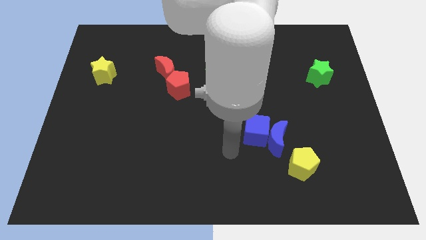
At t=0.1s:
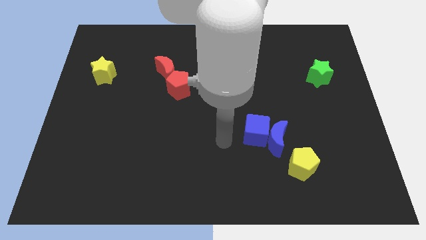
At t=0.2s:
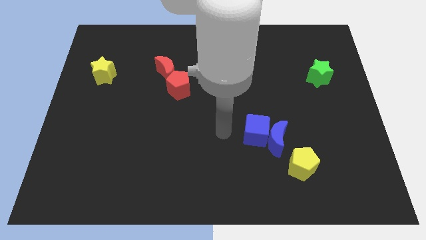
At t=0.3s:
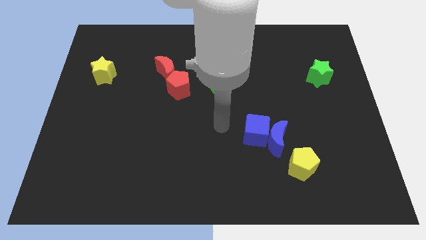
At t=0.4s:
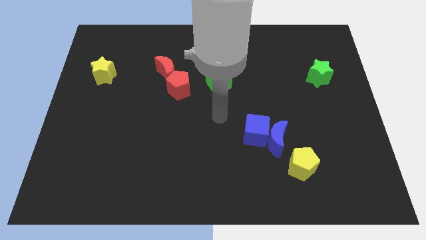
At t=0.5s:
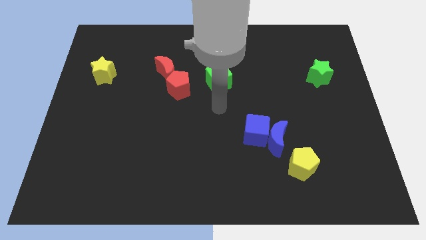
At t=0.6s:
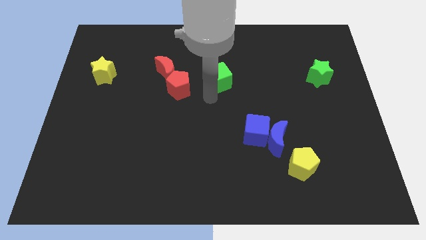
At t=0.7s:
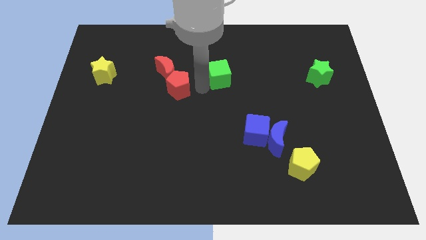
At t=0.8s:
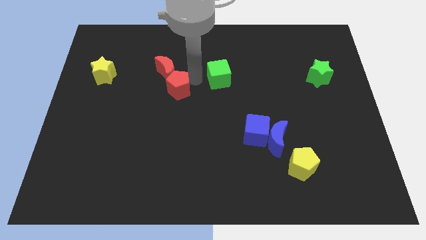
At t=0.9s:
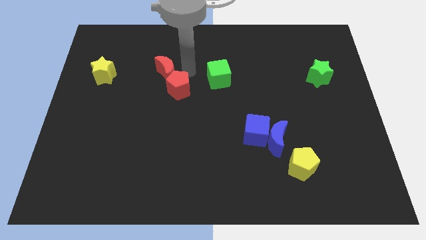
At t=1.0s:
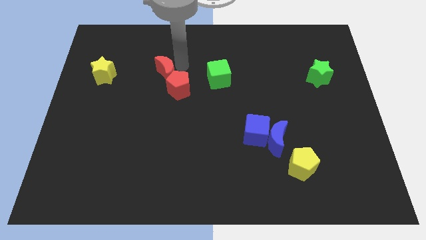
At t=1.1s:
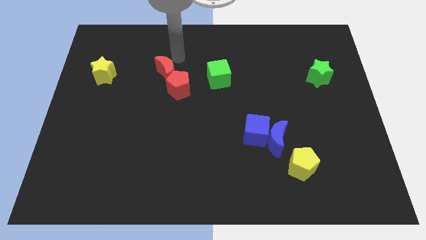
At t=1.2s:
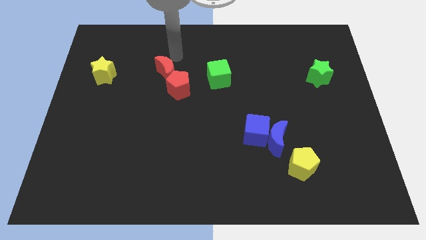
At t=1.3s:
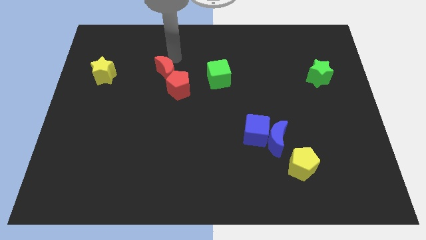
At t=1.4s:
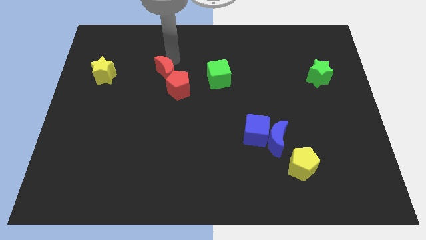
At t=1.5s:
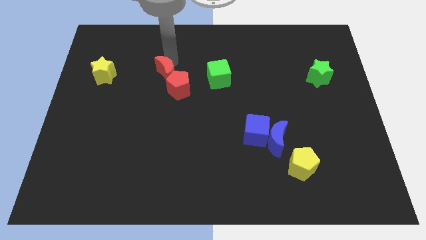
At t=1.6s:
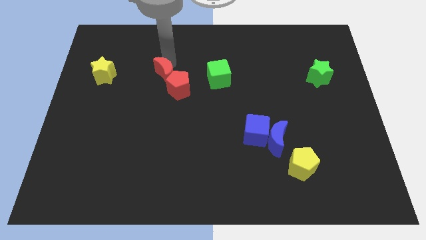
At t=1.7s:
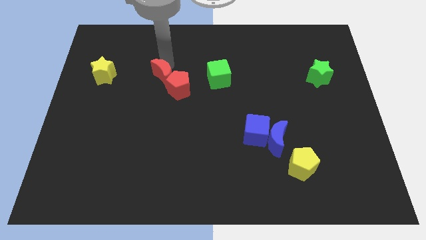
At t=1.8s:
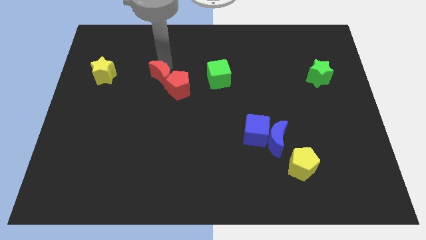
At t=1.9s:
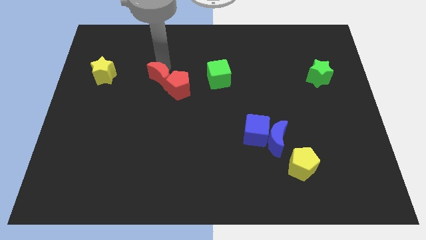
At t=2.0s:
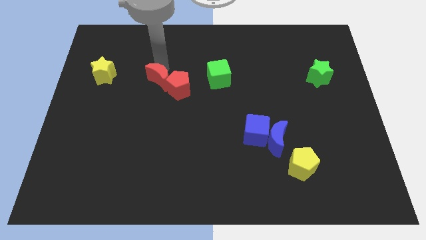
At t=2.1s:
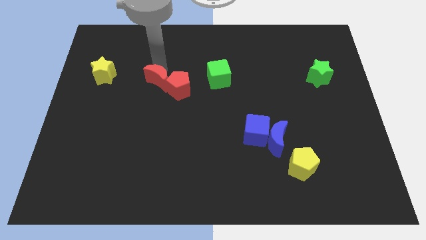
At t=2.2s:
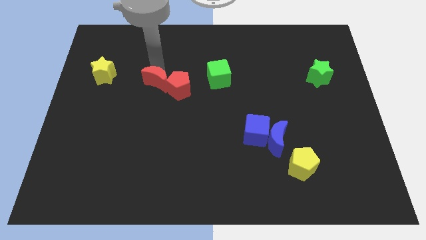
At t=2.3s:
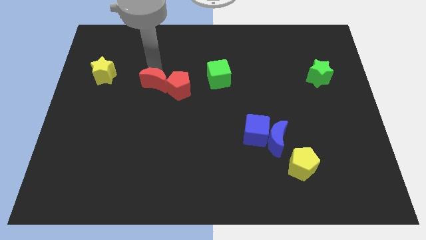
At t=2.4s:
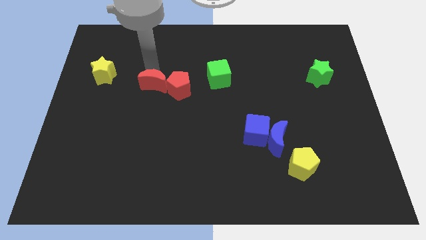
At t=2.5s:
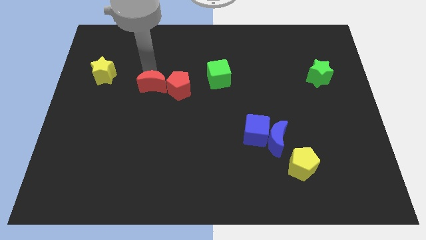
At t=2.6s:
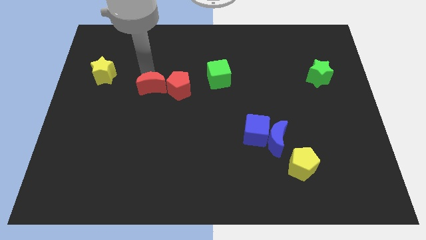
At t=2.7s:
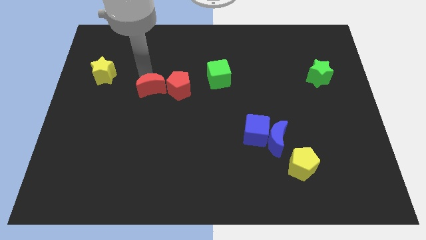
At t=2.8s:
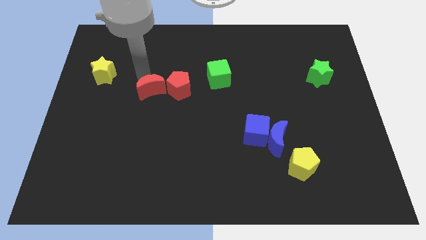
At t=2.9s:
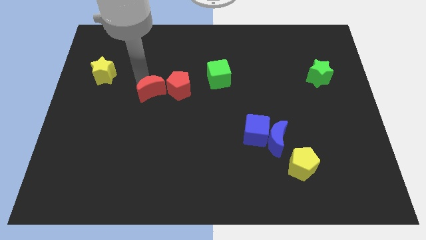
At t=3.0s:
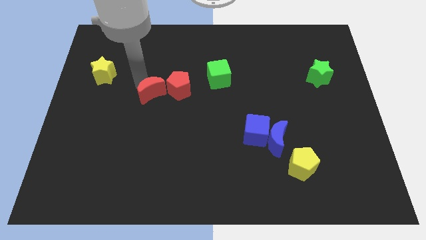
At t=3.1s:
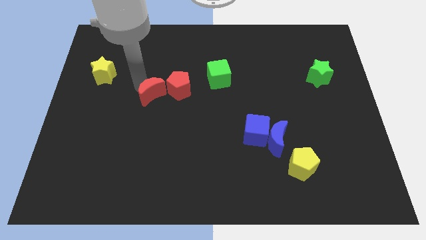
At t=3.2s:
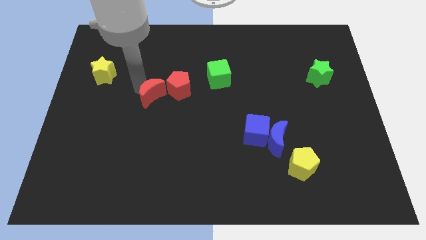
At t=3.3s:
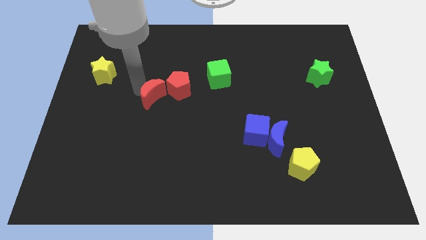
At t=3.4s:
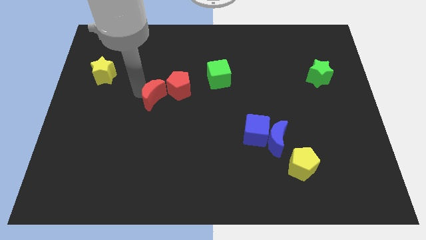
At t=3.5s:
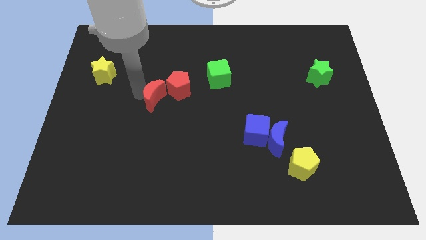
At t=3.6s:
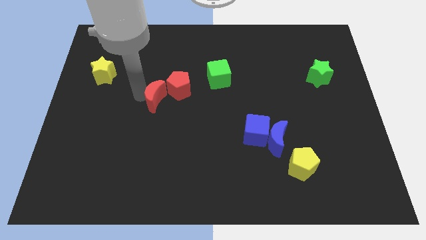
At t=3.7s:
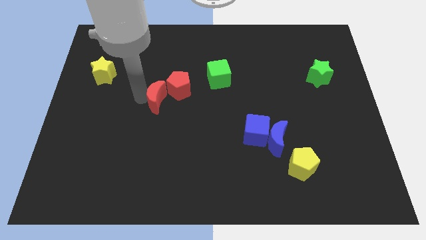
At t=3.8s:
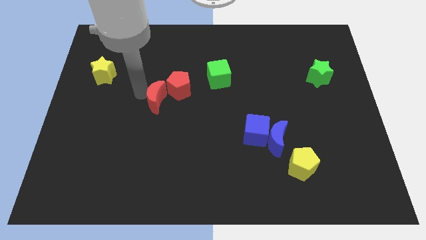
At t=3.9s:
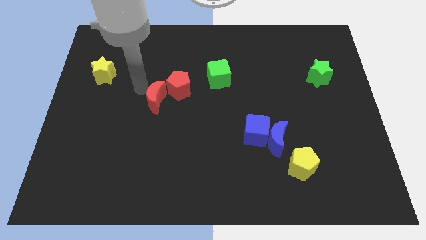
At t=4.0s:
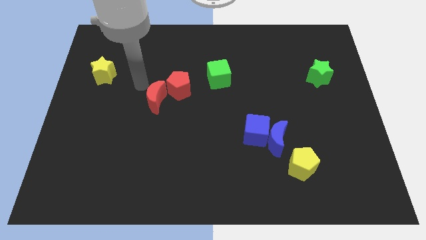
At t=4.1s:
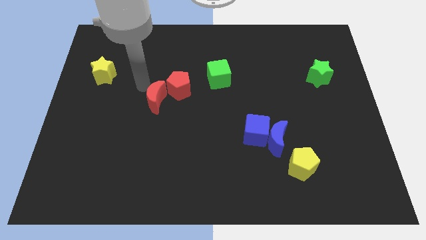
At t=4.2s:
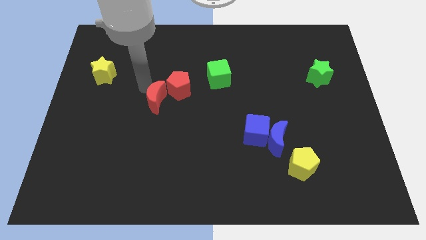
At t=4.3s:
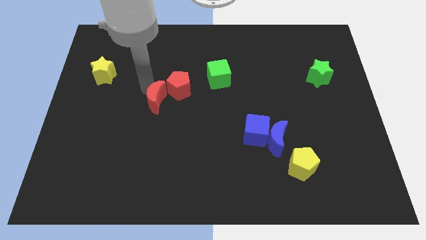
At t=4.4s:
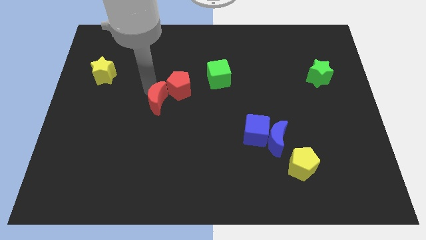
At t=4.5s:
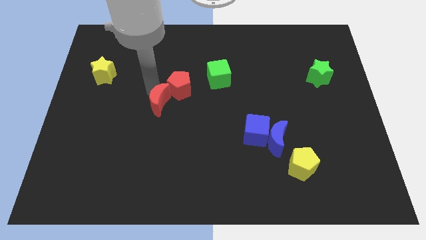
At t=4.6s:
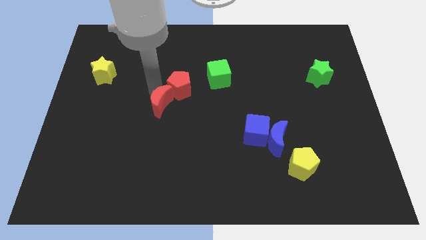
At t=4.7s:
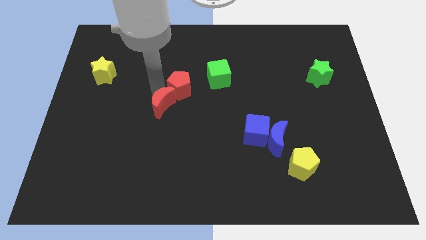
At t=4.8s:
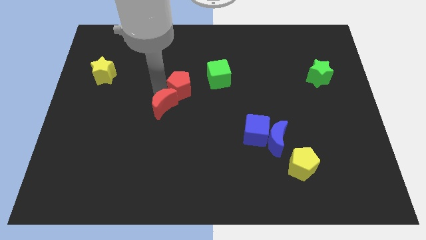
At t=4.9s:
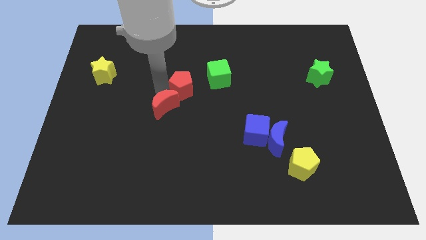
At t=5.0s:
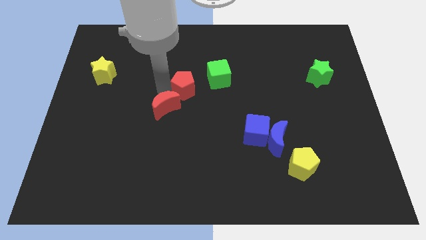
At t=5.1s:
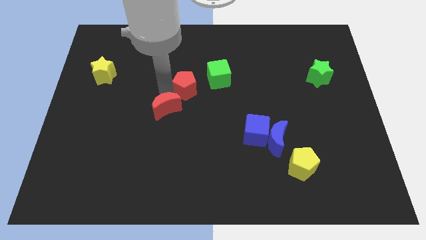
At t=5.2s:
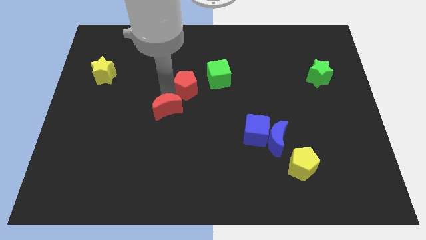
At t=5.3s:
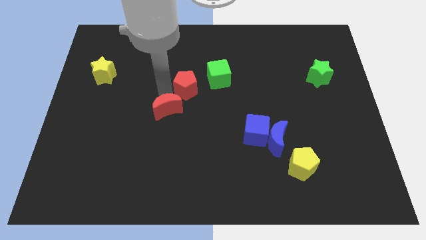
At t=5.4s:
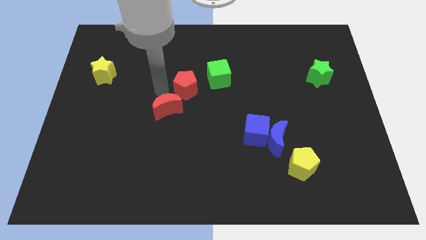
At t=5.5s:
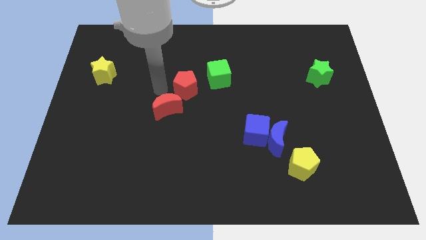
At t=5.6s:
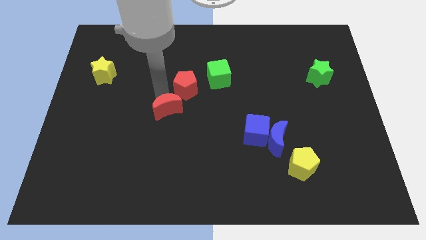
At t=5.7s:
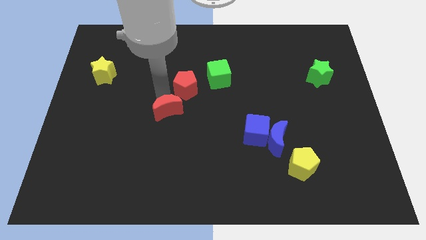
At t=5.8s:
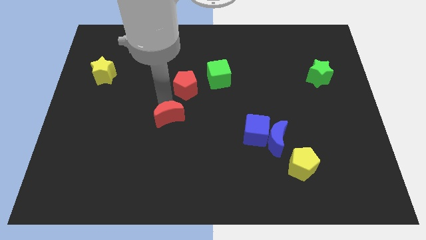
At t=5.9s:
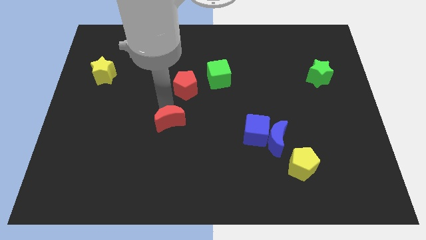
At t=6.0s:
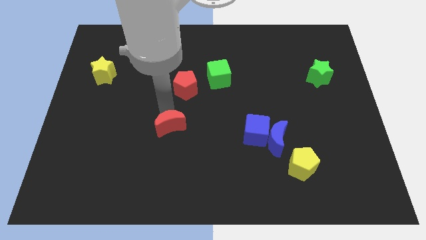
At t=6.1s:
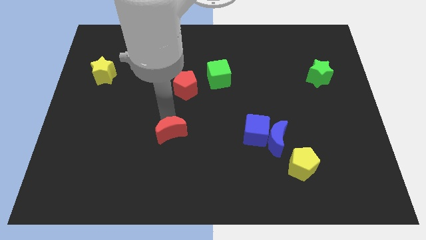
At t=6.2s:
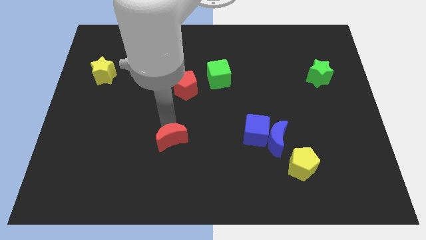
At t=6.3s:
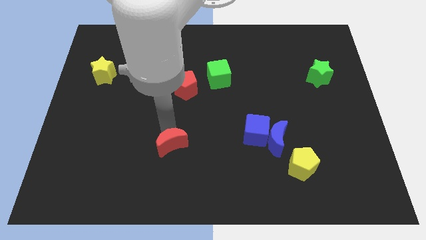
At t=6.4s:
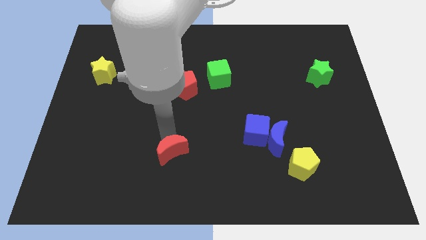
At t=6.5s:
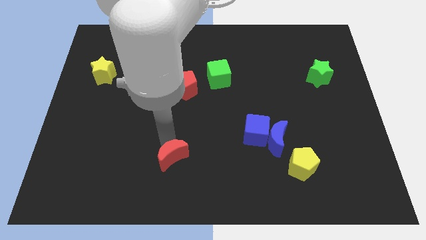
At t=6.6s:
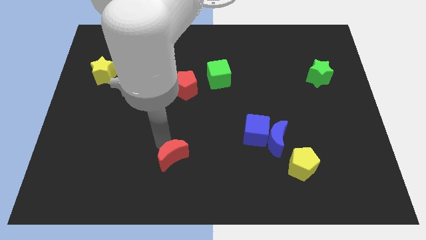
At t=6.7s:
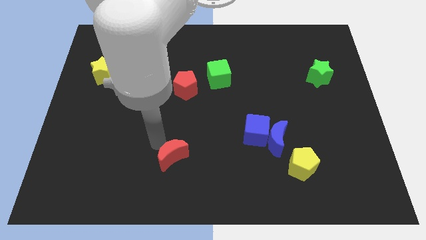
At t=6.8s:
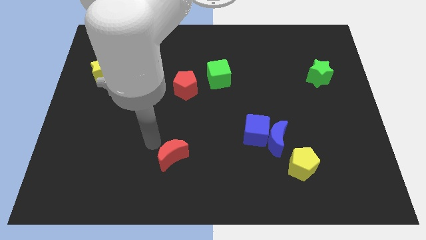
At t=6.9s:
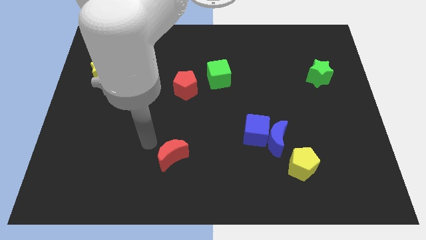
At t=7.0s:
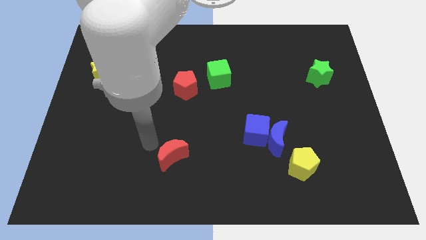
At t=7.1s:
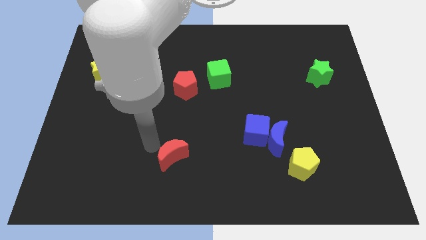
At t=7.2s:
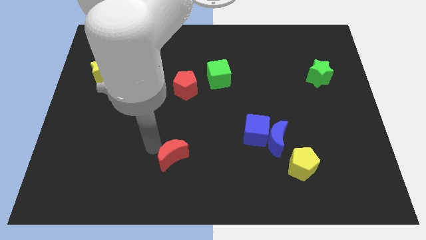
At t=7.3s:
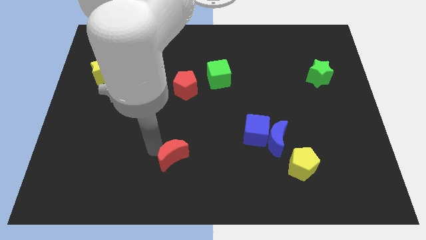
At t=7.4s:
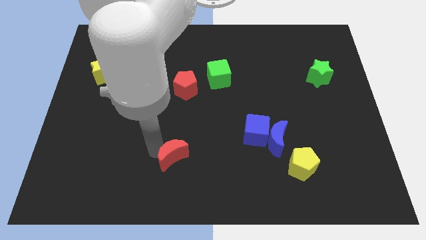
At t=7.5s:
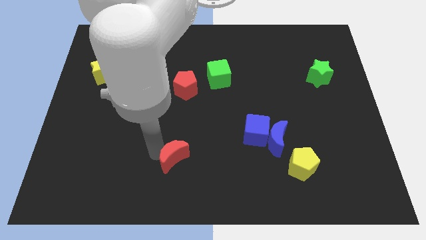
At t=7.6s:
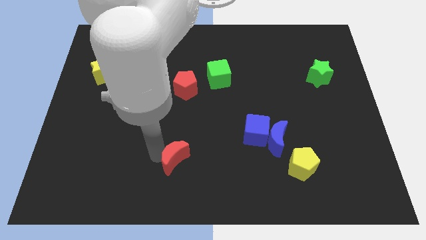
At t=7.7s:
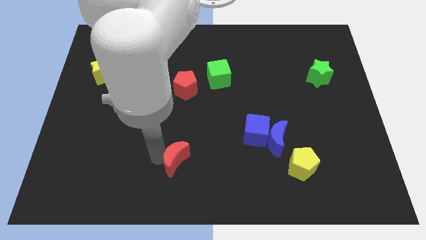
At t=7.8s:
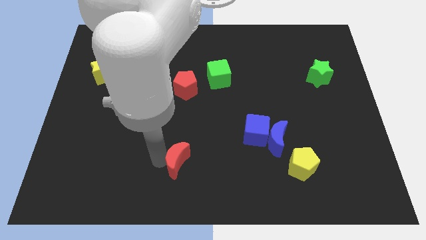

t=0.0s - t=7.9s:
push the red moon to the bottom side
